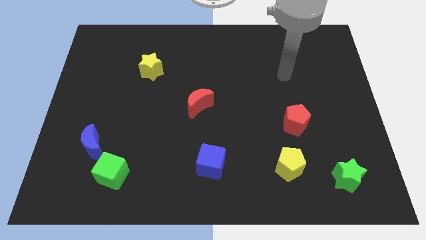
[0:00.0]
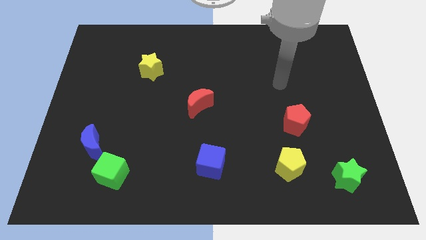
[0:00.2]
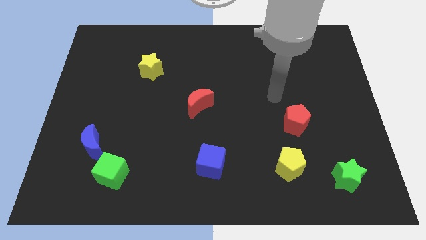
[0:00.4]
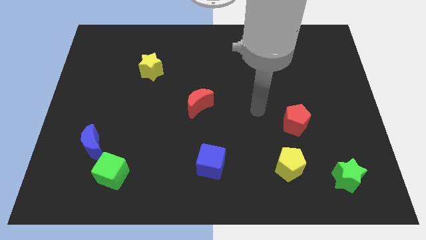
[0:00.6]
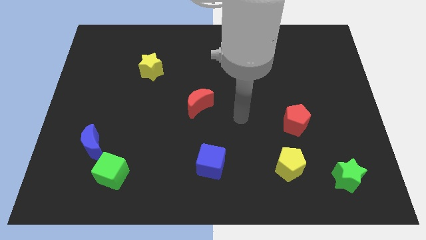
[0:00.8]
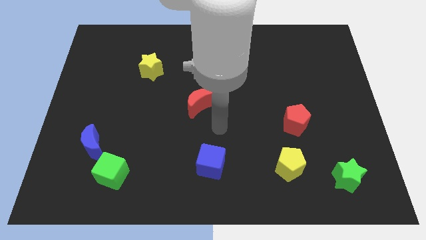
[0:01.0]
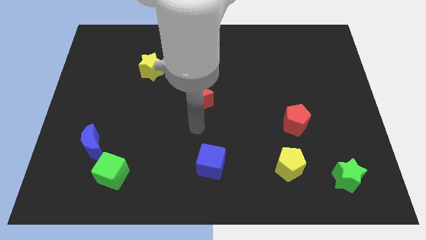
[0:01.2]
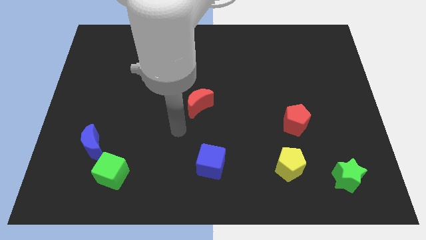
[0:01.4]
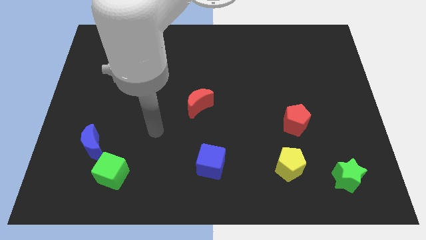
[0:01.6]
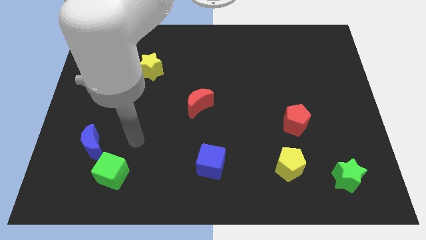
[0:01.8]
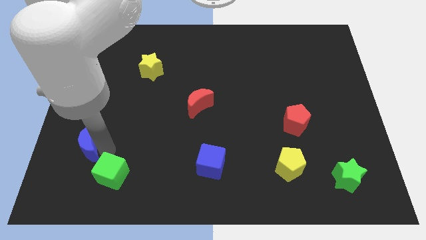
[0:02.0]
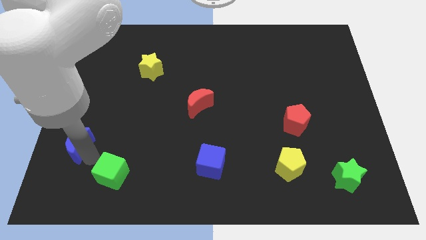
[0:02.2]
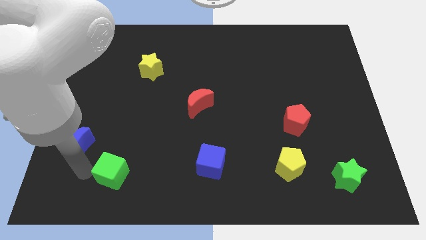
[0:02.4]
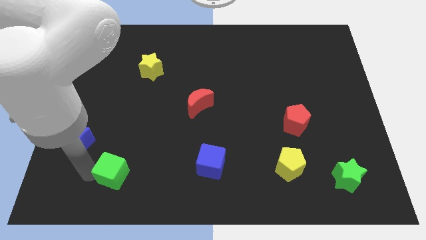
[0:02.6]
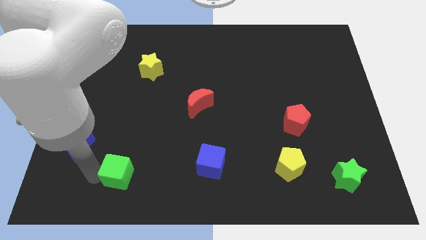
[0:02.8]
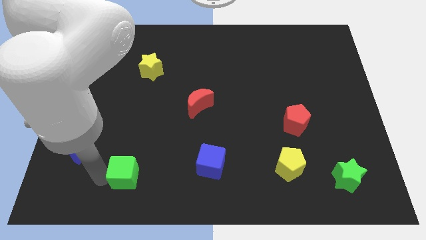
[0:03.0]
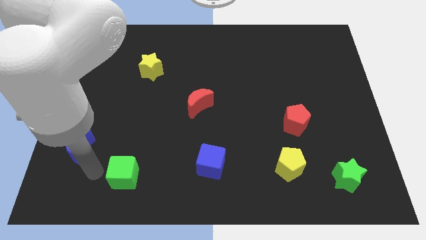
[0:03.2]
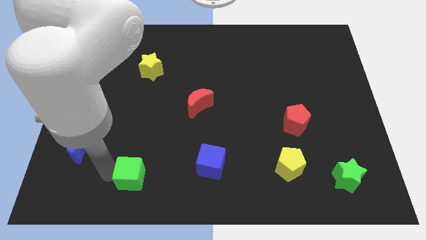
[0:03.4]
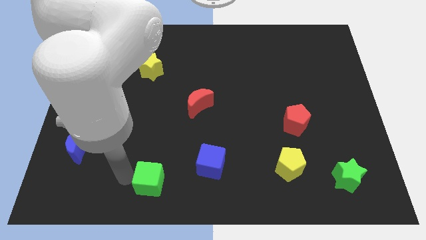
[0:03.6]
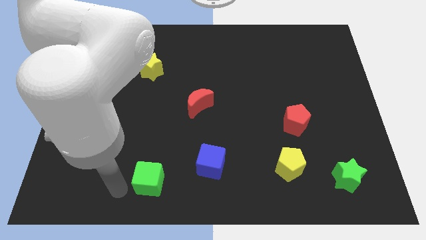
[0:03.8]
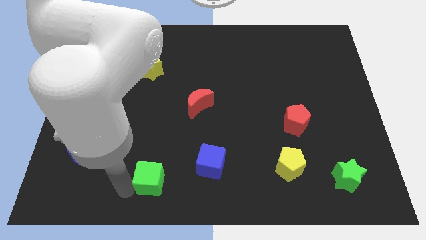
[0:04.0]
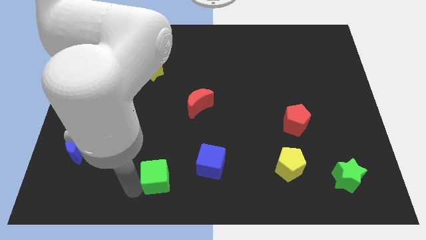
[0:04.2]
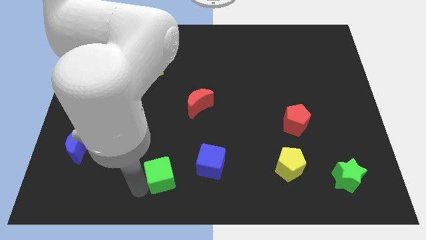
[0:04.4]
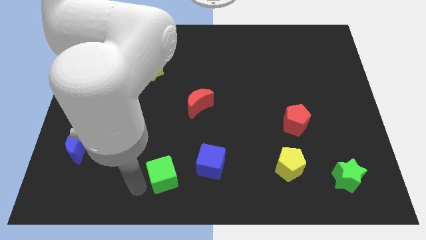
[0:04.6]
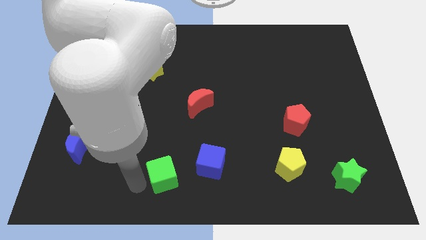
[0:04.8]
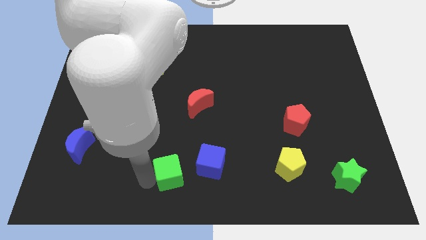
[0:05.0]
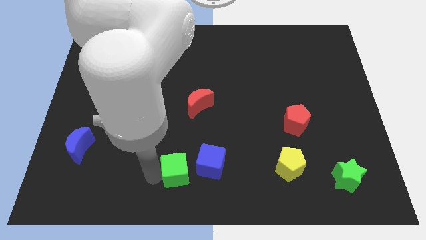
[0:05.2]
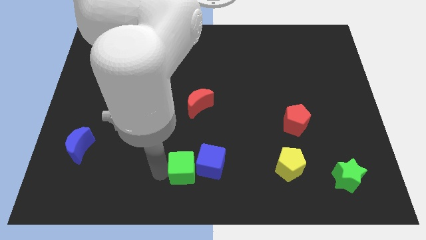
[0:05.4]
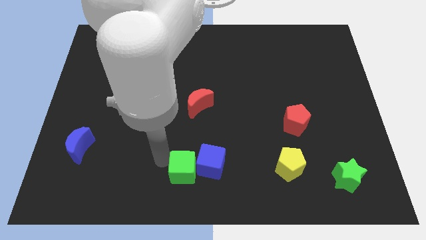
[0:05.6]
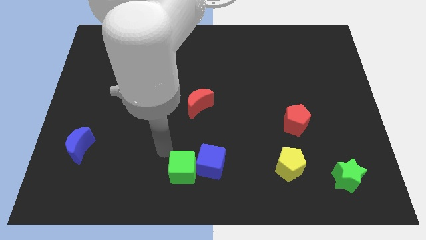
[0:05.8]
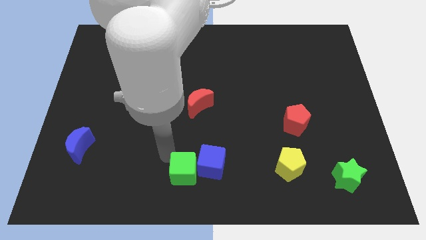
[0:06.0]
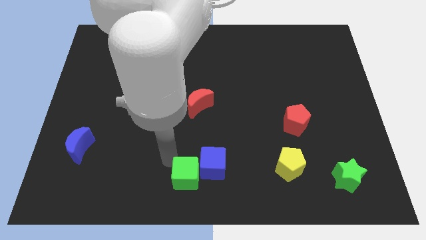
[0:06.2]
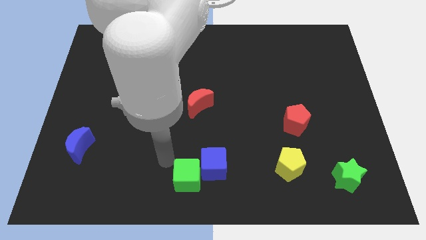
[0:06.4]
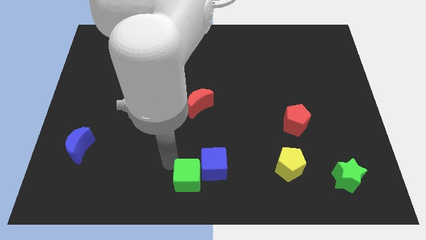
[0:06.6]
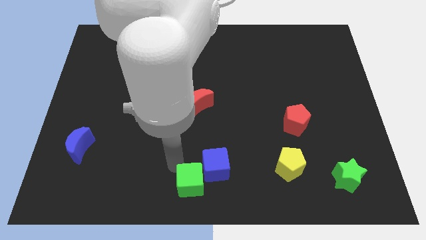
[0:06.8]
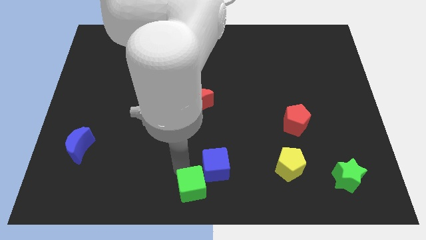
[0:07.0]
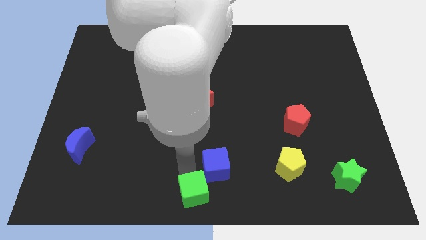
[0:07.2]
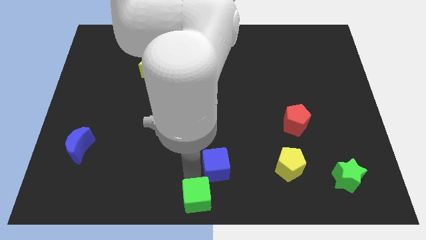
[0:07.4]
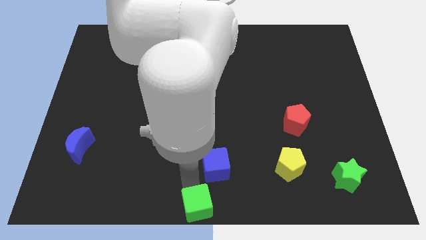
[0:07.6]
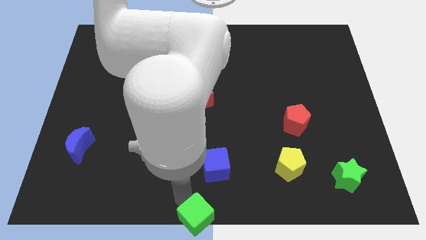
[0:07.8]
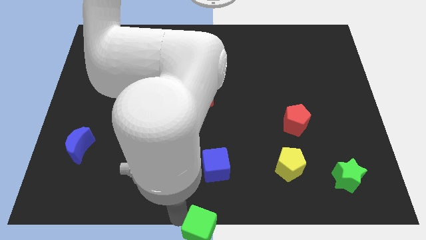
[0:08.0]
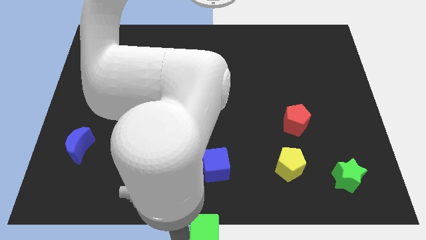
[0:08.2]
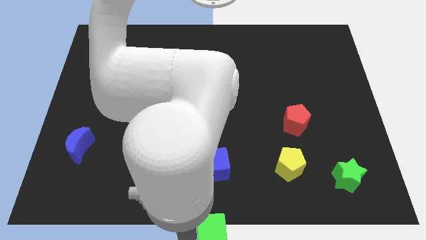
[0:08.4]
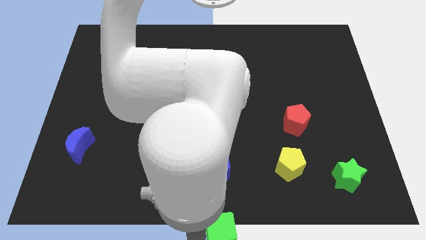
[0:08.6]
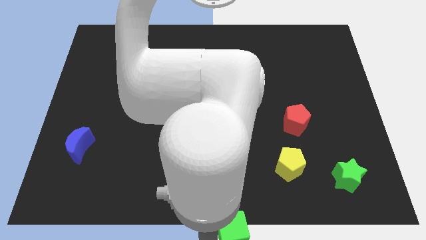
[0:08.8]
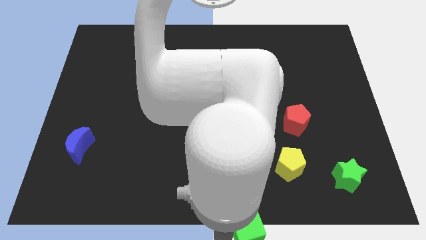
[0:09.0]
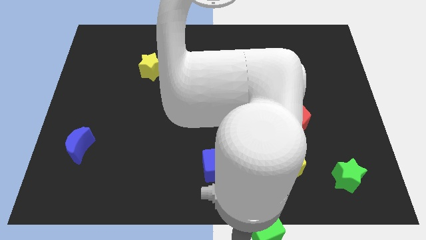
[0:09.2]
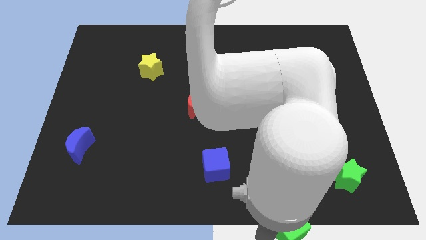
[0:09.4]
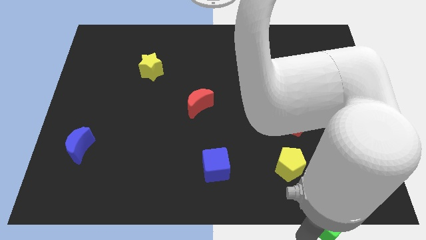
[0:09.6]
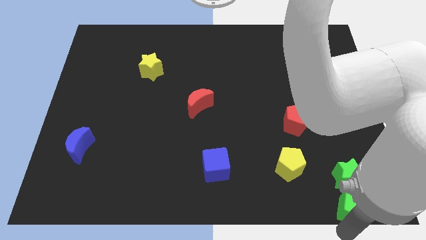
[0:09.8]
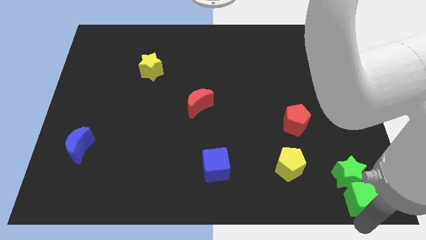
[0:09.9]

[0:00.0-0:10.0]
push the green cube towards the green star

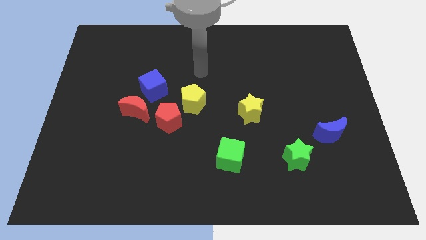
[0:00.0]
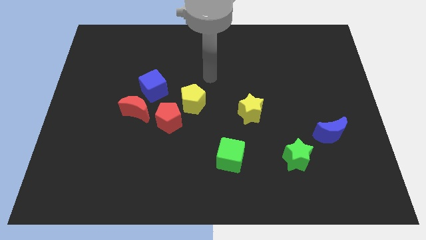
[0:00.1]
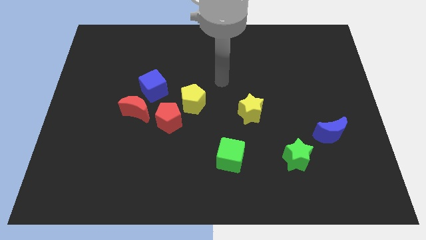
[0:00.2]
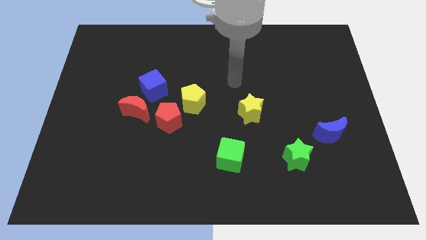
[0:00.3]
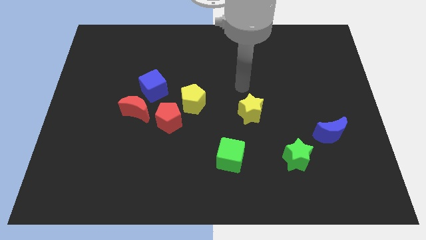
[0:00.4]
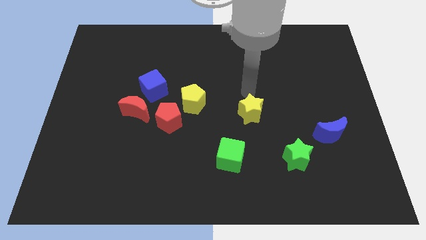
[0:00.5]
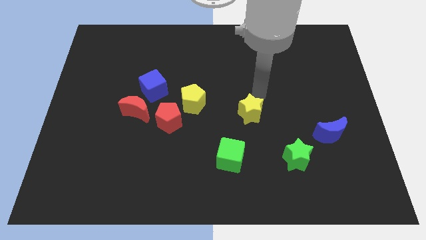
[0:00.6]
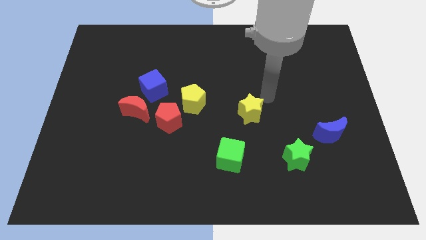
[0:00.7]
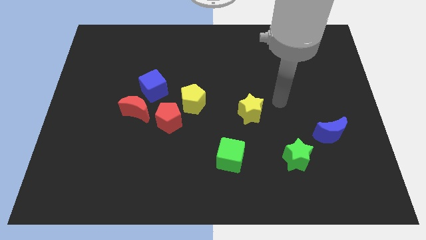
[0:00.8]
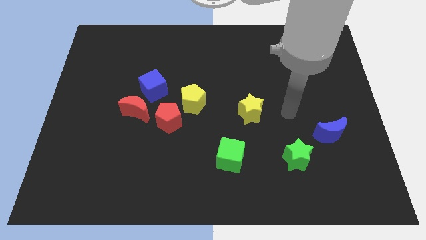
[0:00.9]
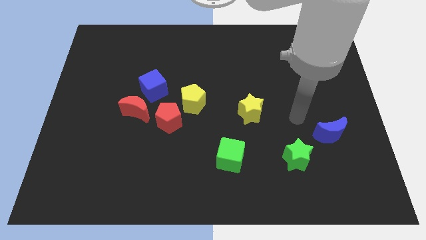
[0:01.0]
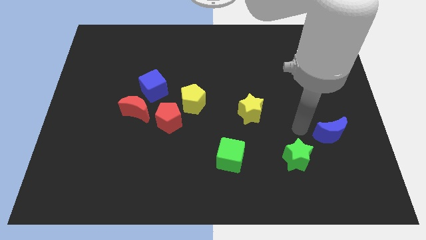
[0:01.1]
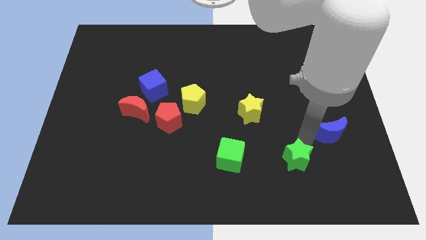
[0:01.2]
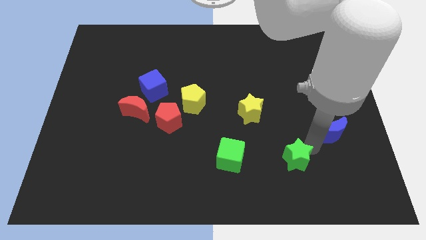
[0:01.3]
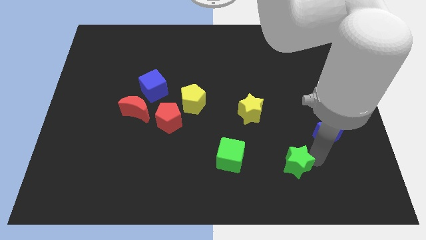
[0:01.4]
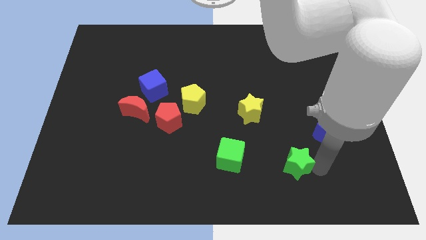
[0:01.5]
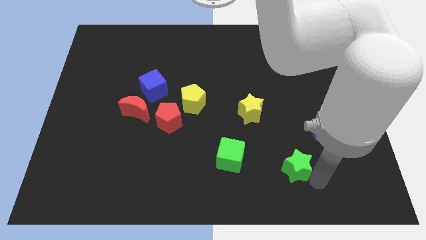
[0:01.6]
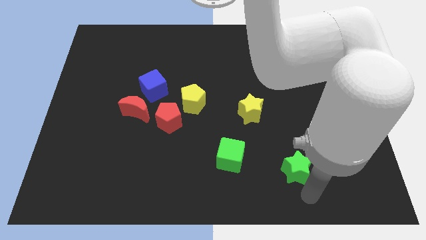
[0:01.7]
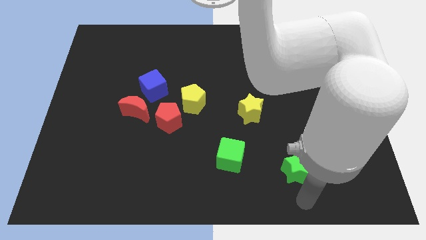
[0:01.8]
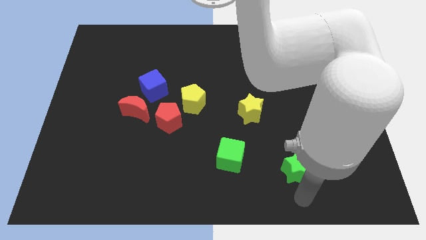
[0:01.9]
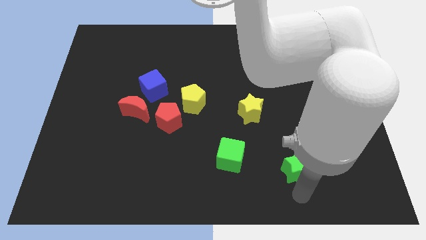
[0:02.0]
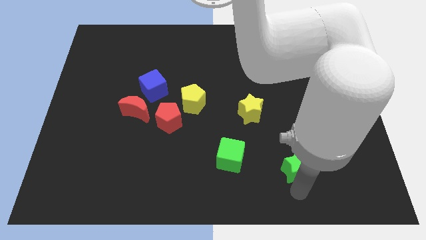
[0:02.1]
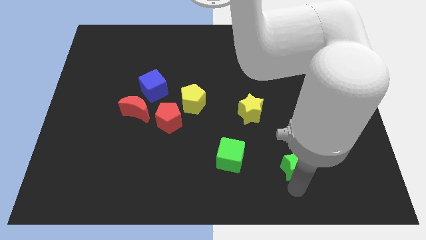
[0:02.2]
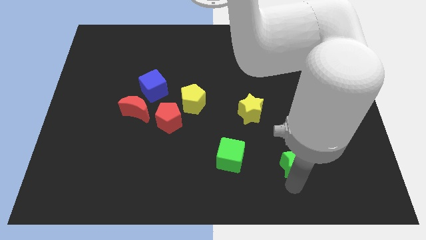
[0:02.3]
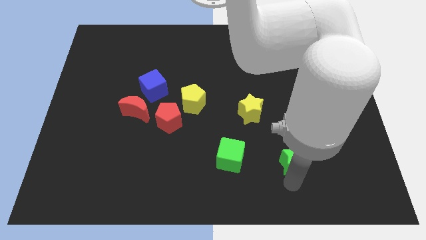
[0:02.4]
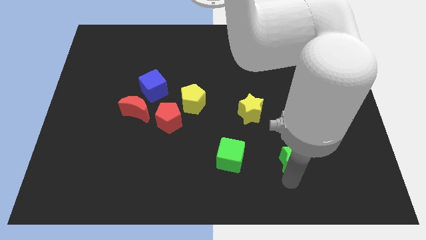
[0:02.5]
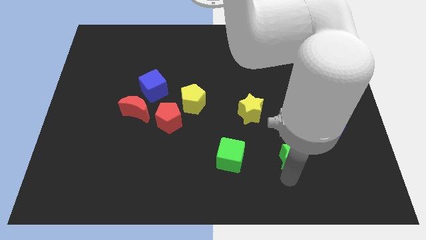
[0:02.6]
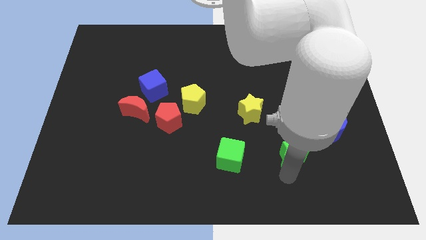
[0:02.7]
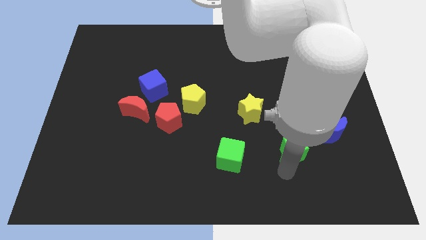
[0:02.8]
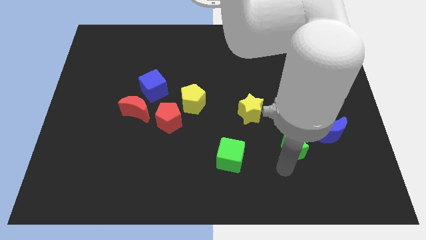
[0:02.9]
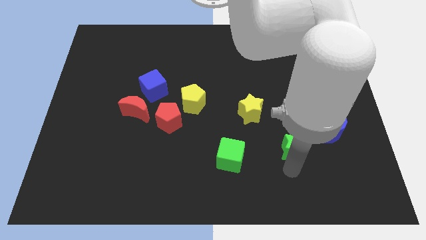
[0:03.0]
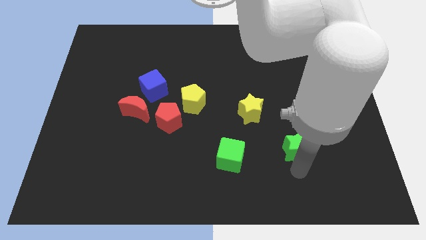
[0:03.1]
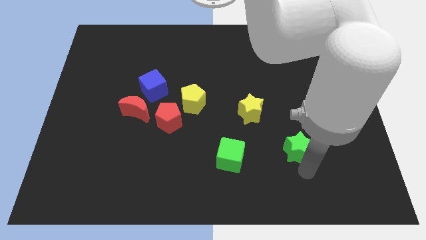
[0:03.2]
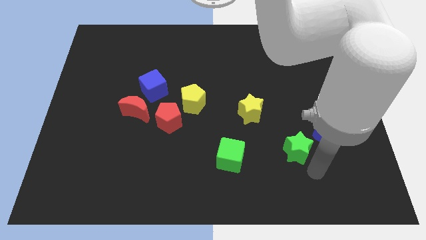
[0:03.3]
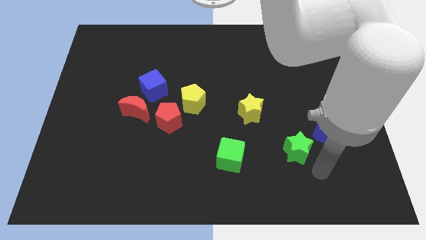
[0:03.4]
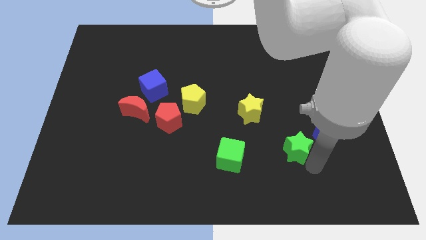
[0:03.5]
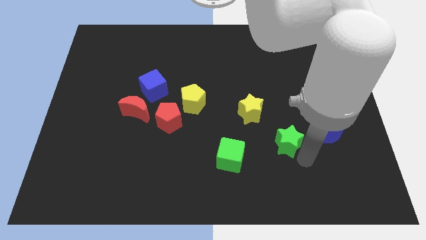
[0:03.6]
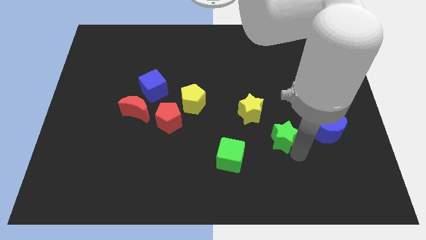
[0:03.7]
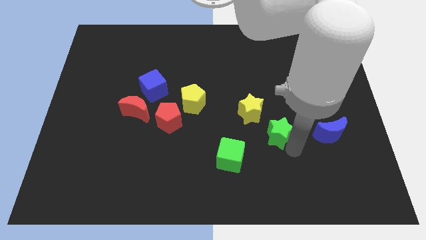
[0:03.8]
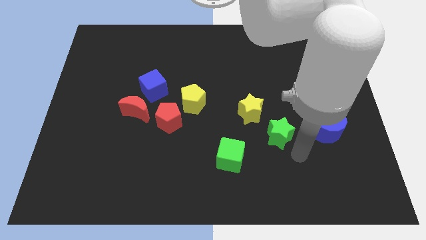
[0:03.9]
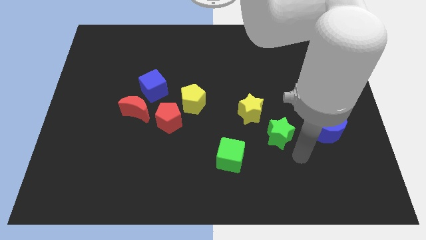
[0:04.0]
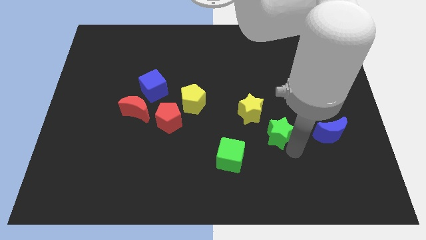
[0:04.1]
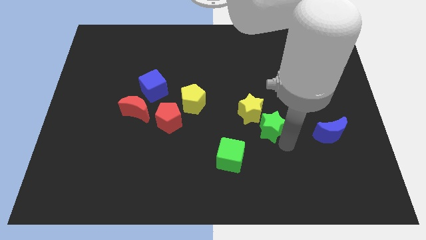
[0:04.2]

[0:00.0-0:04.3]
put the green star to the yellow star
